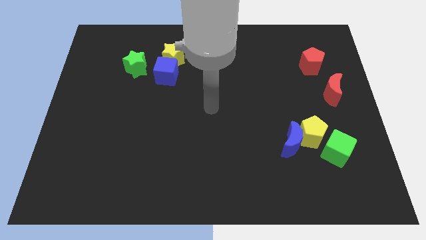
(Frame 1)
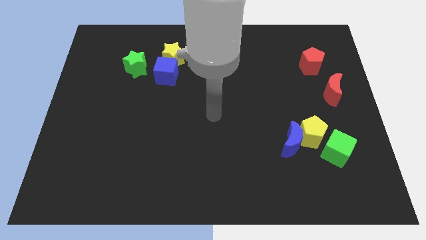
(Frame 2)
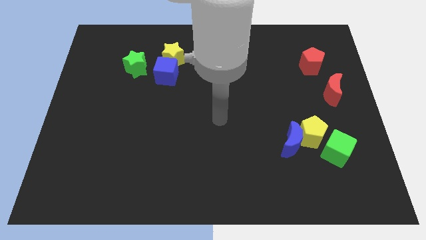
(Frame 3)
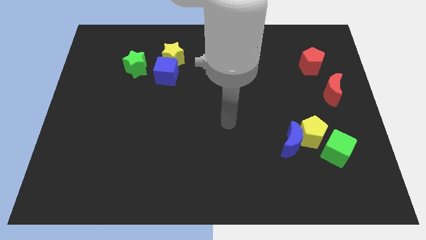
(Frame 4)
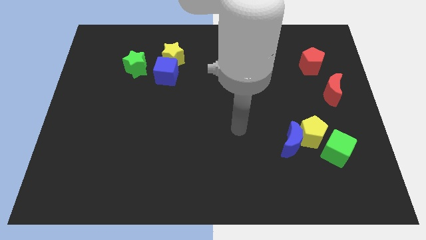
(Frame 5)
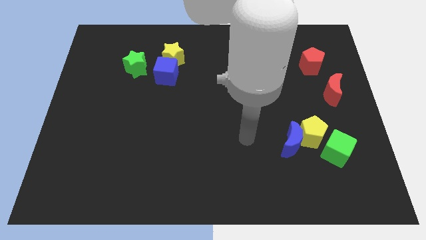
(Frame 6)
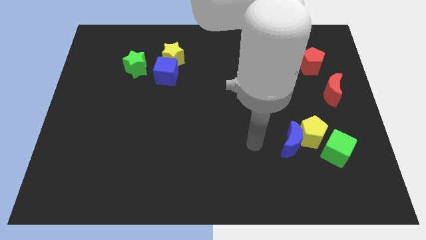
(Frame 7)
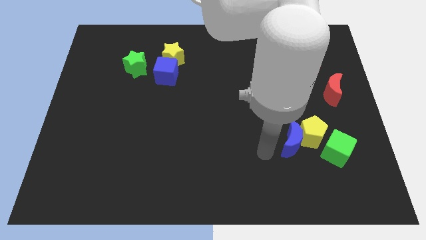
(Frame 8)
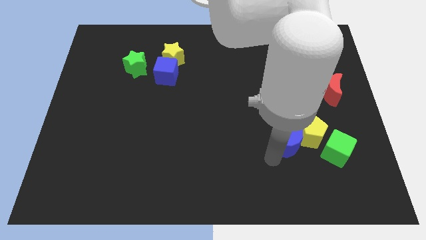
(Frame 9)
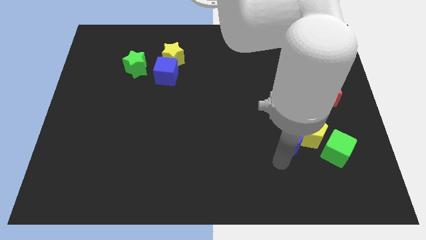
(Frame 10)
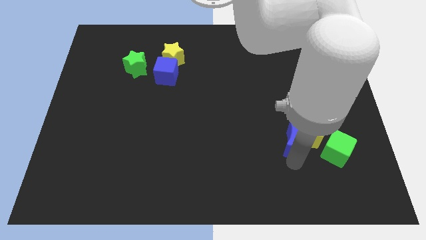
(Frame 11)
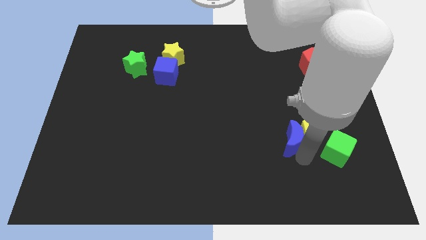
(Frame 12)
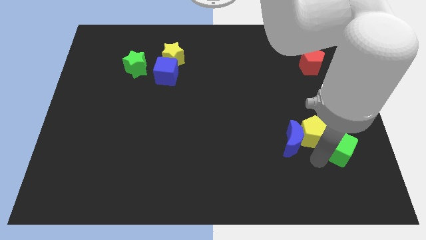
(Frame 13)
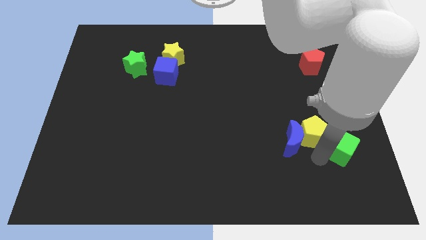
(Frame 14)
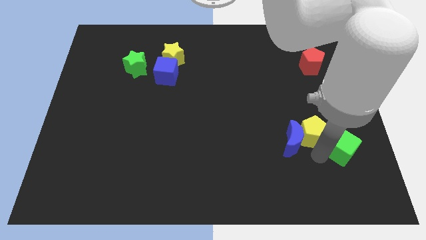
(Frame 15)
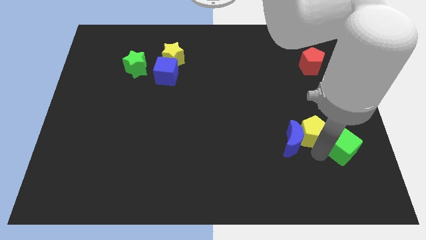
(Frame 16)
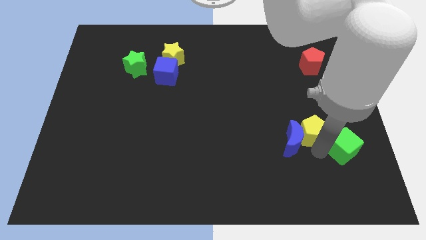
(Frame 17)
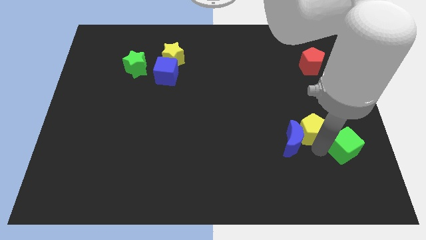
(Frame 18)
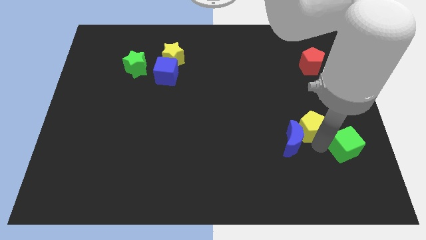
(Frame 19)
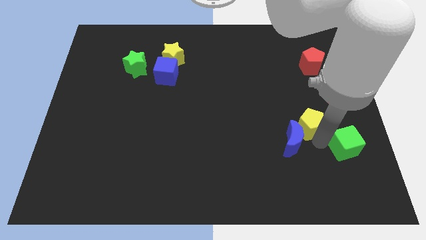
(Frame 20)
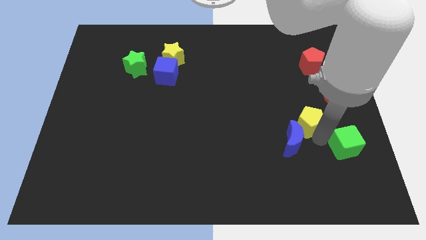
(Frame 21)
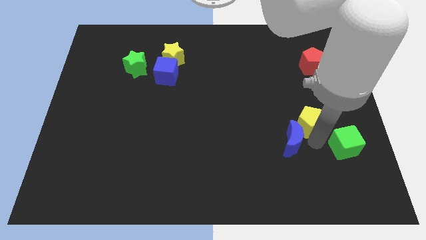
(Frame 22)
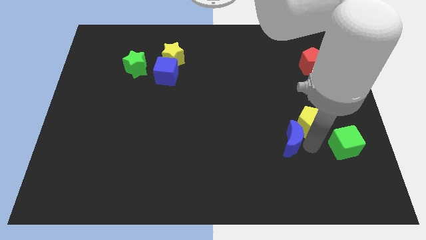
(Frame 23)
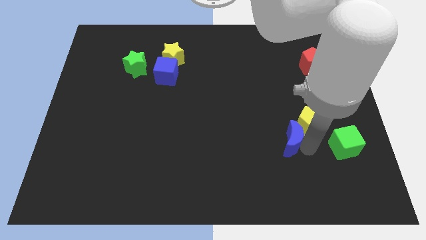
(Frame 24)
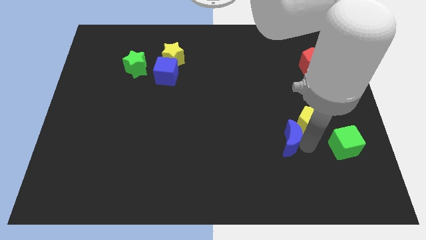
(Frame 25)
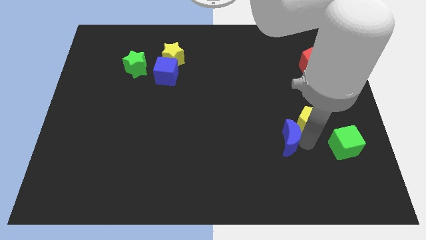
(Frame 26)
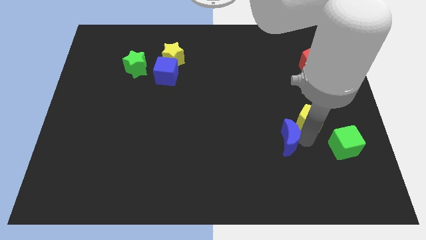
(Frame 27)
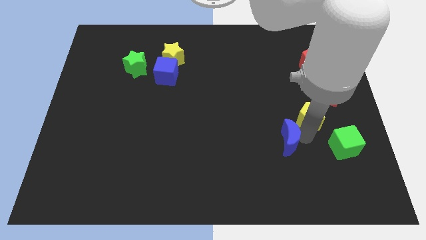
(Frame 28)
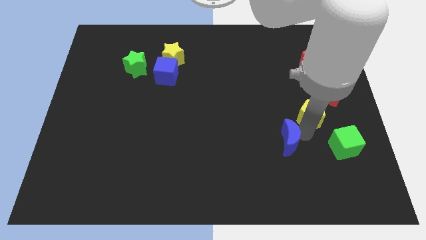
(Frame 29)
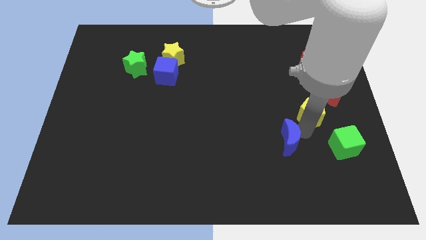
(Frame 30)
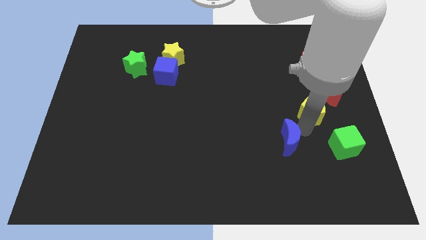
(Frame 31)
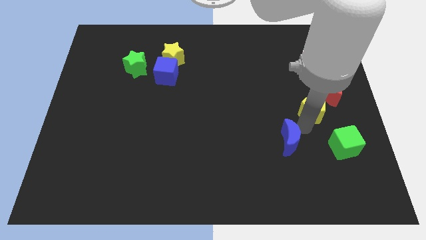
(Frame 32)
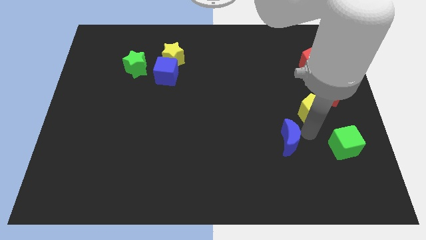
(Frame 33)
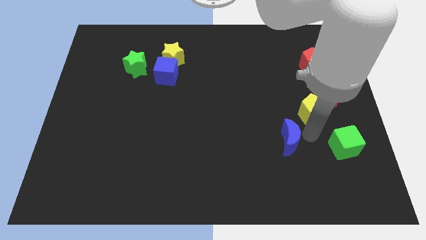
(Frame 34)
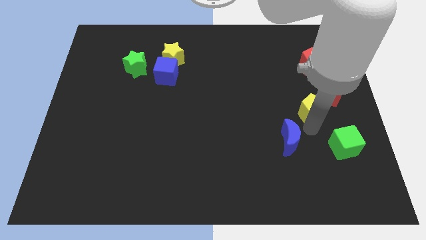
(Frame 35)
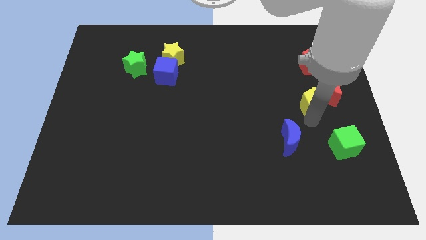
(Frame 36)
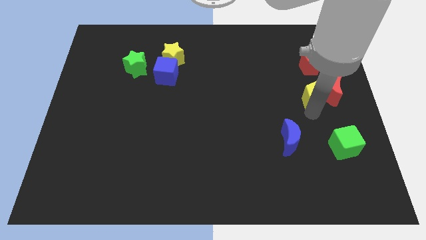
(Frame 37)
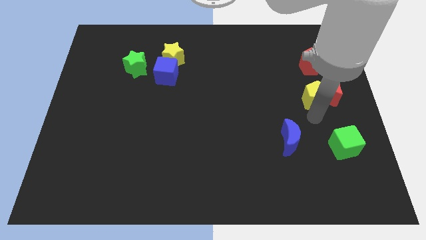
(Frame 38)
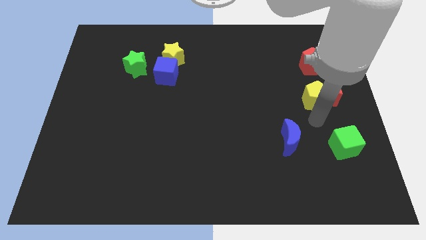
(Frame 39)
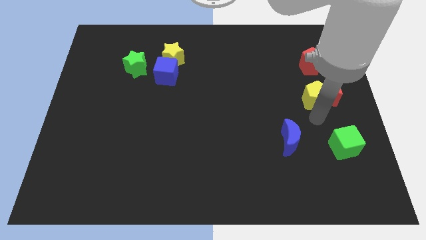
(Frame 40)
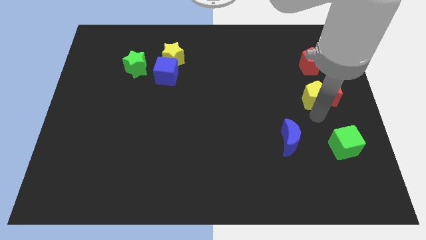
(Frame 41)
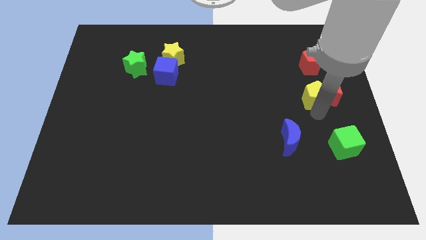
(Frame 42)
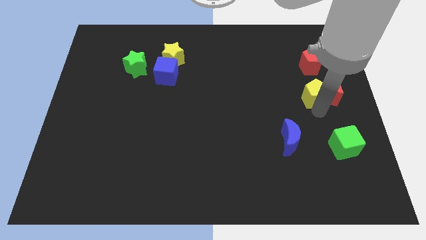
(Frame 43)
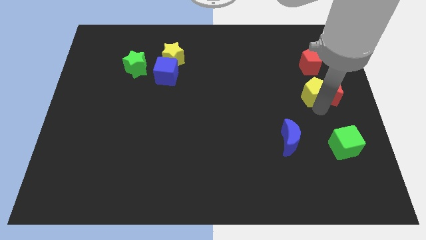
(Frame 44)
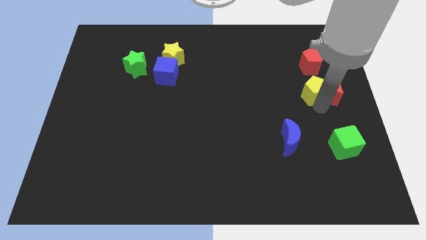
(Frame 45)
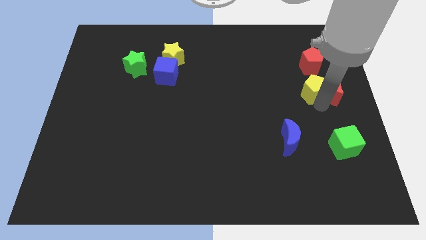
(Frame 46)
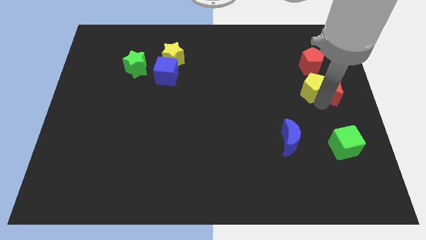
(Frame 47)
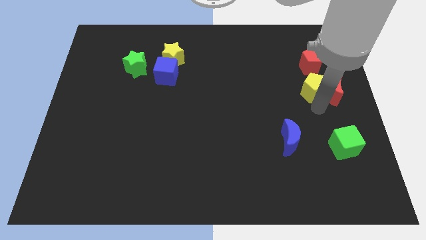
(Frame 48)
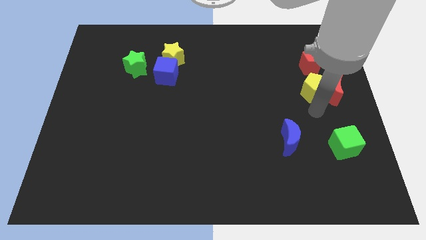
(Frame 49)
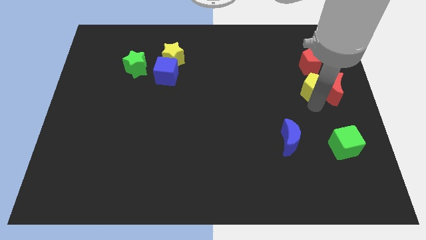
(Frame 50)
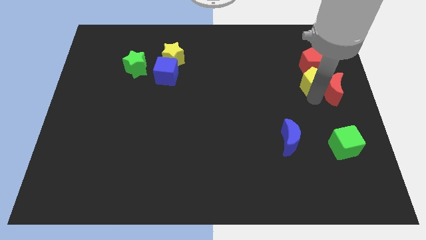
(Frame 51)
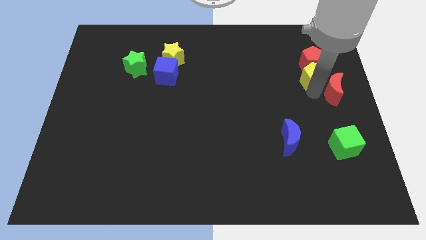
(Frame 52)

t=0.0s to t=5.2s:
slide the yellow pentagon next to the red pentagon

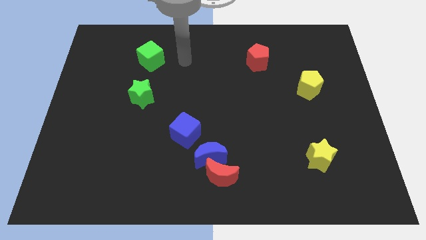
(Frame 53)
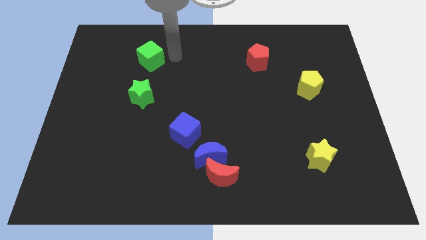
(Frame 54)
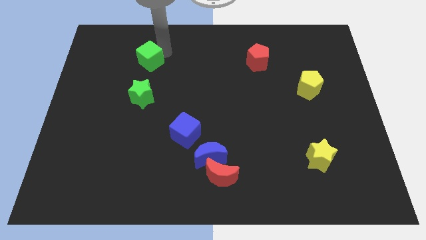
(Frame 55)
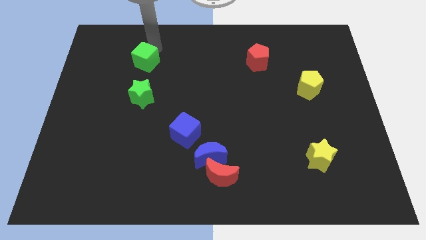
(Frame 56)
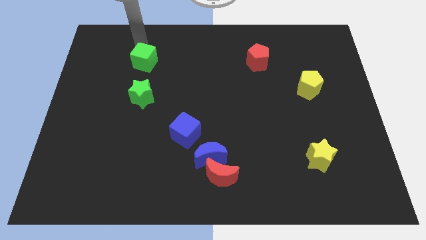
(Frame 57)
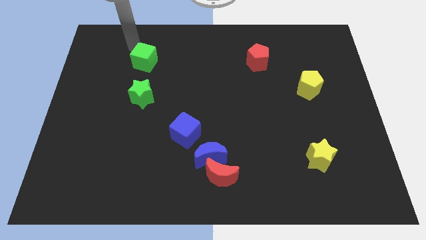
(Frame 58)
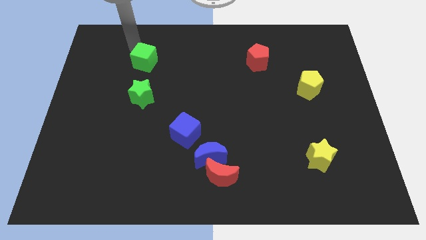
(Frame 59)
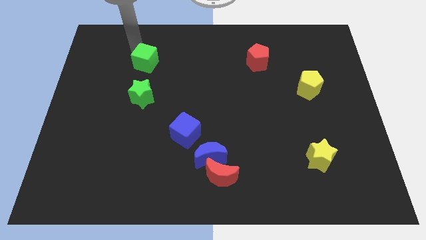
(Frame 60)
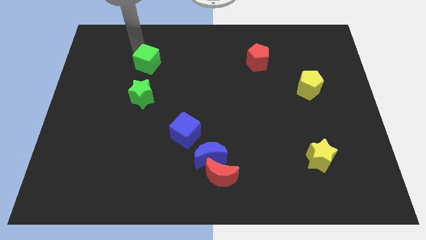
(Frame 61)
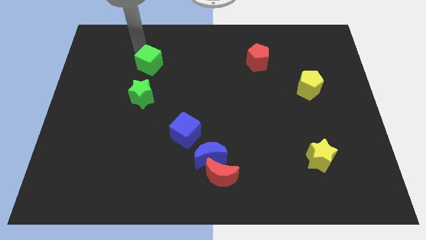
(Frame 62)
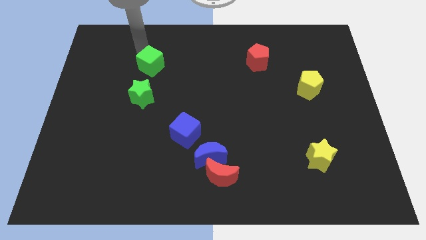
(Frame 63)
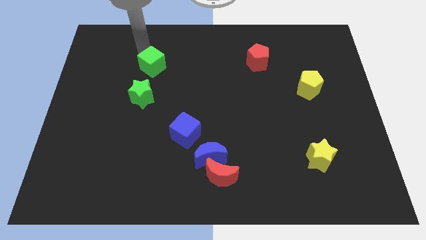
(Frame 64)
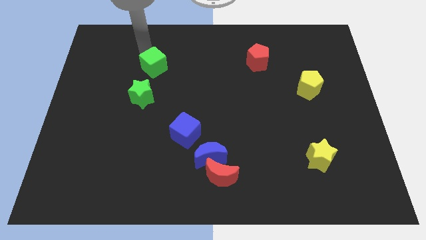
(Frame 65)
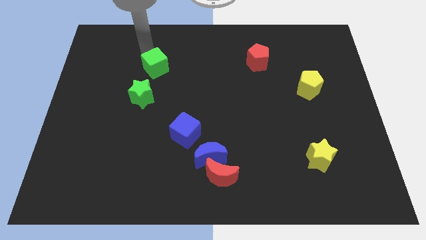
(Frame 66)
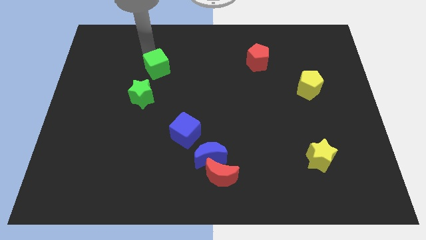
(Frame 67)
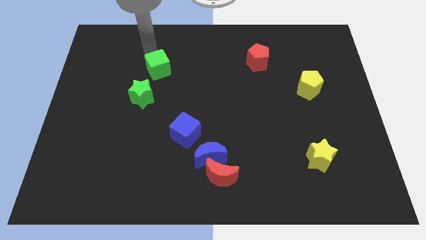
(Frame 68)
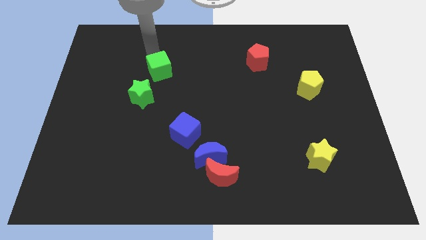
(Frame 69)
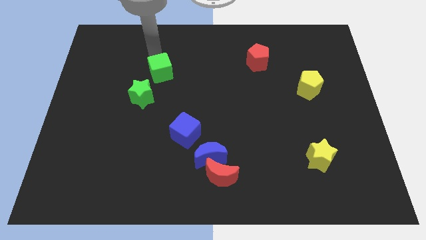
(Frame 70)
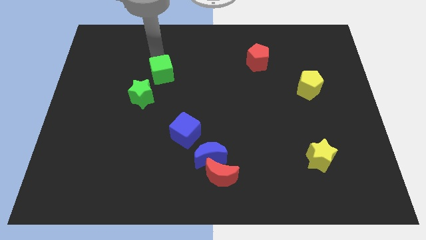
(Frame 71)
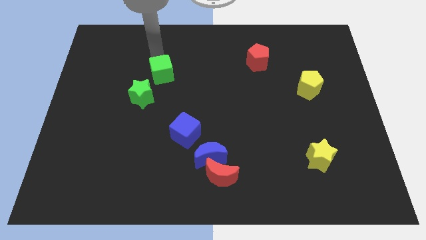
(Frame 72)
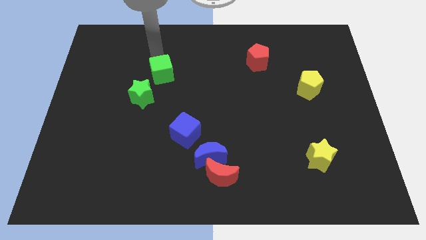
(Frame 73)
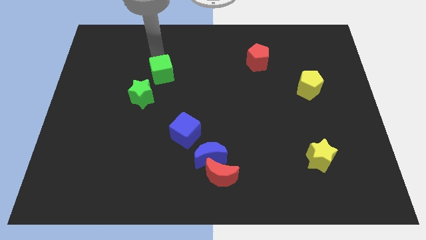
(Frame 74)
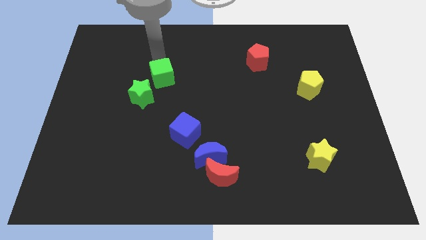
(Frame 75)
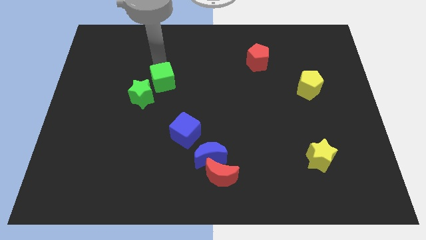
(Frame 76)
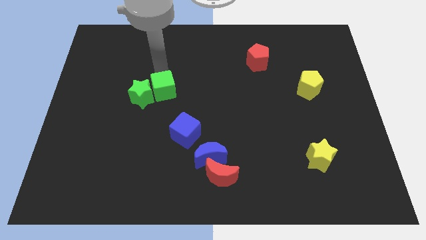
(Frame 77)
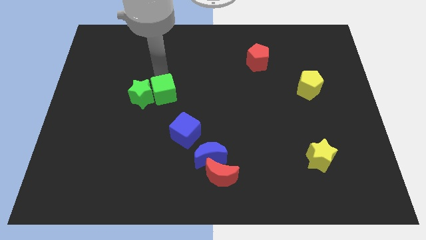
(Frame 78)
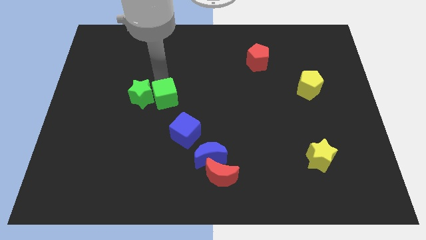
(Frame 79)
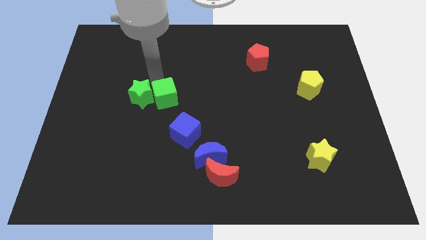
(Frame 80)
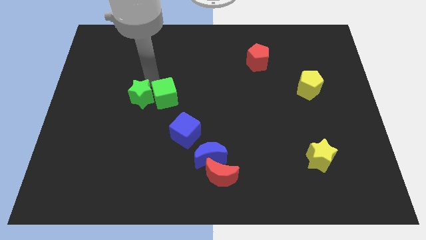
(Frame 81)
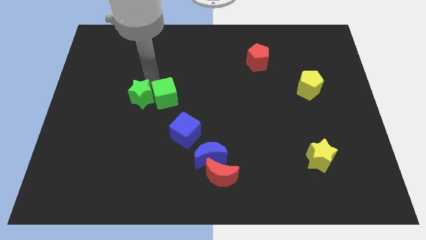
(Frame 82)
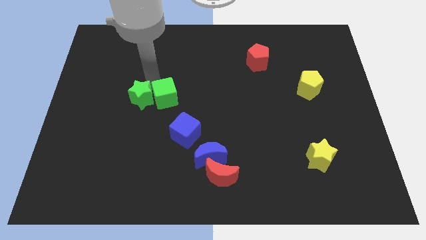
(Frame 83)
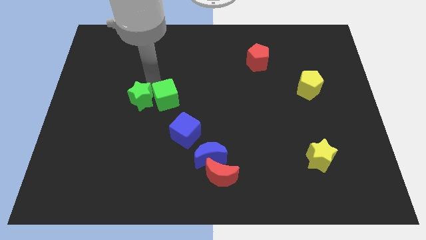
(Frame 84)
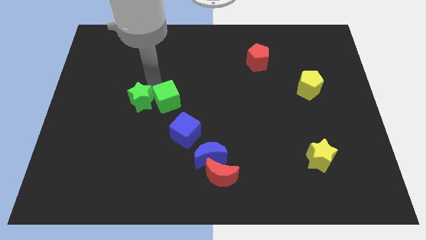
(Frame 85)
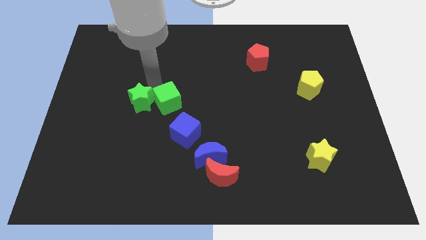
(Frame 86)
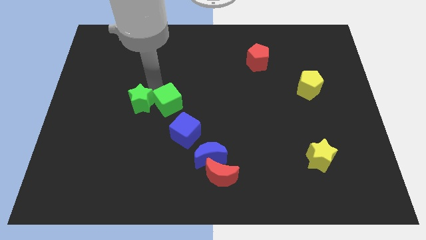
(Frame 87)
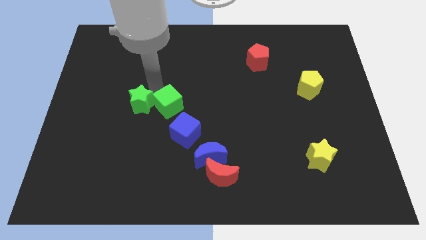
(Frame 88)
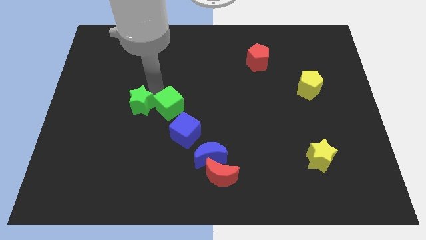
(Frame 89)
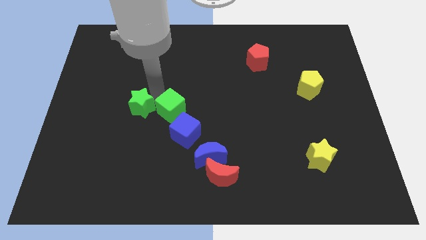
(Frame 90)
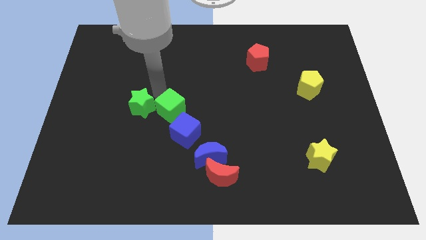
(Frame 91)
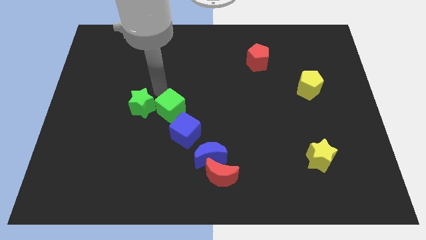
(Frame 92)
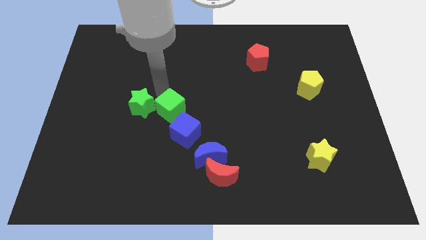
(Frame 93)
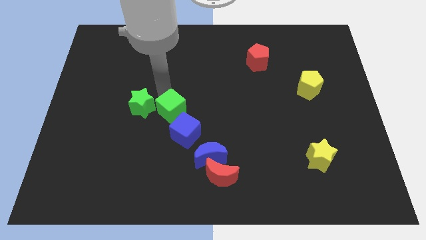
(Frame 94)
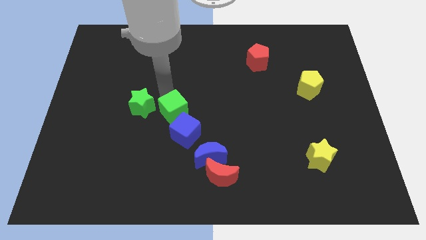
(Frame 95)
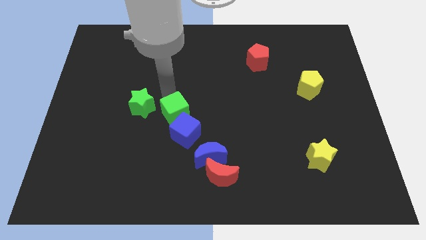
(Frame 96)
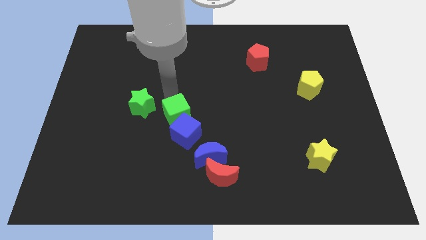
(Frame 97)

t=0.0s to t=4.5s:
slide the green cube next to the blue cube
